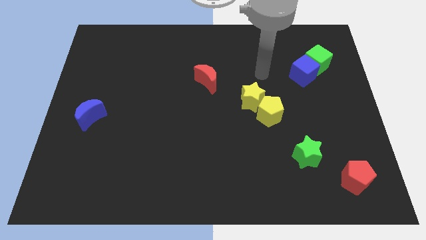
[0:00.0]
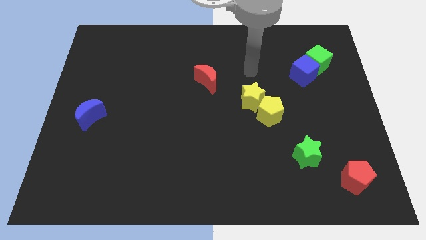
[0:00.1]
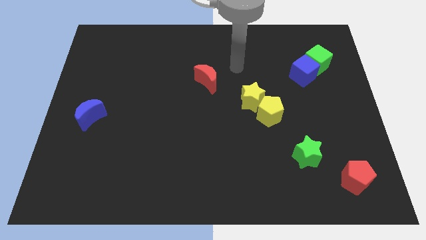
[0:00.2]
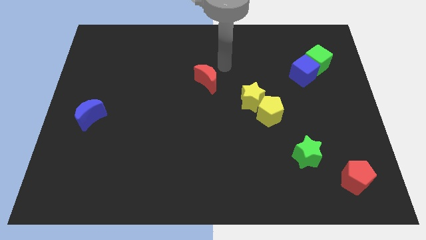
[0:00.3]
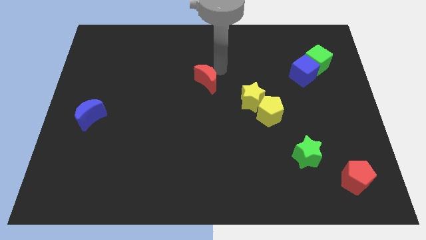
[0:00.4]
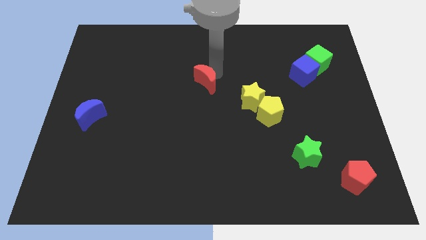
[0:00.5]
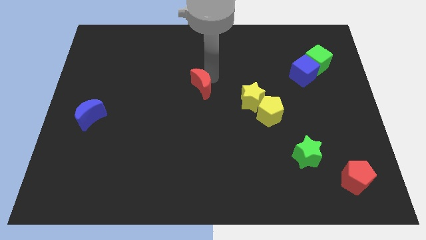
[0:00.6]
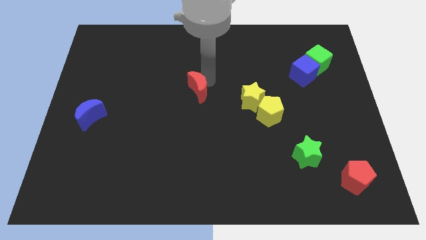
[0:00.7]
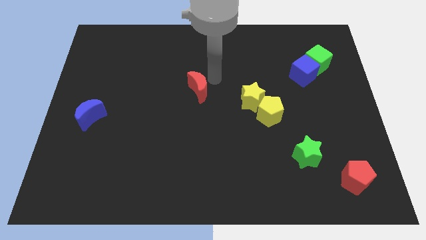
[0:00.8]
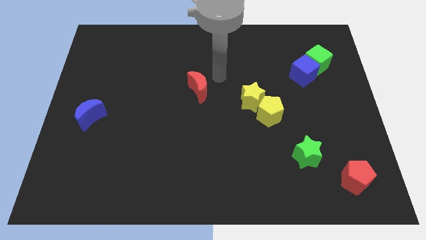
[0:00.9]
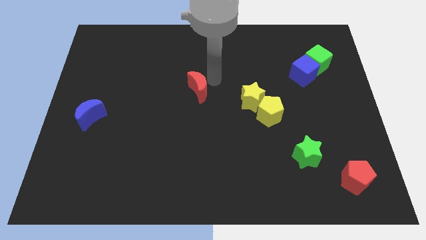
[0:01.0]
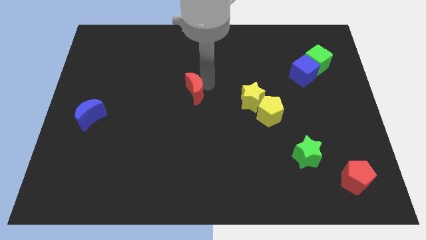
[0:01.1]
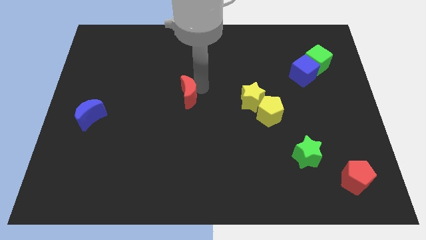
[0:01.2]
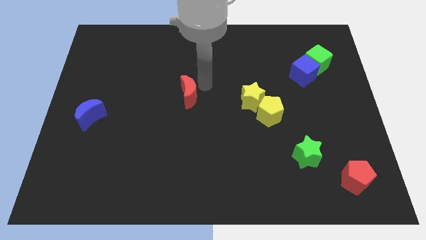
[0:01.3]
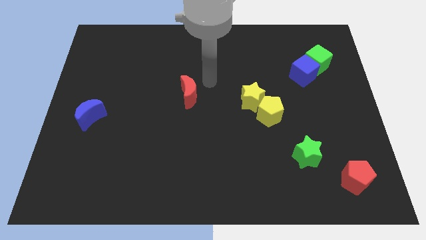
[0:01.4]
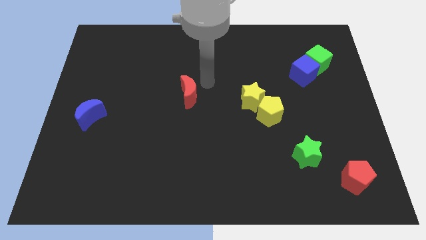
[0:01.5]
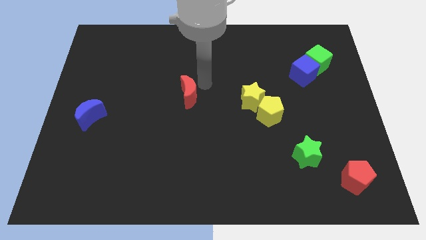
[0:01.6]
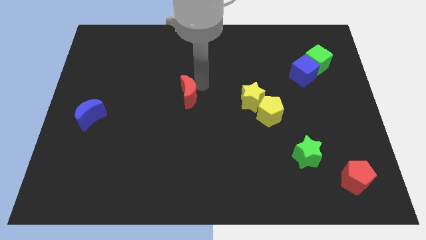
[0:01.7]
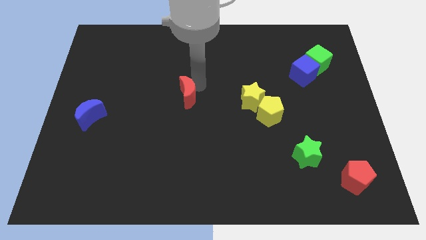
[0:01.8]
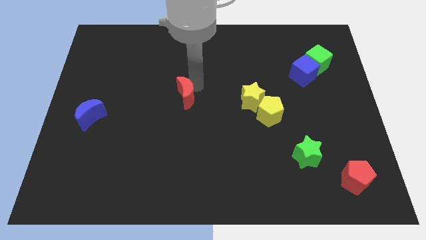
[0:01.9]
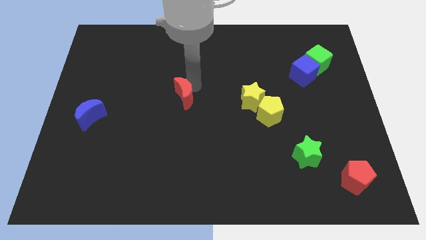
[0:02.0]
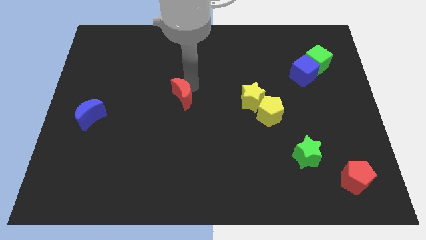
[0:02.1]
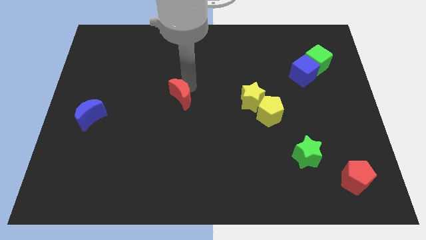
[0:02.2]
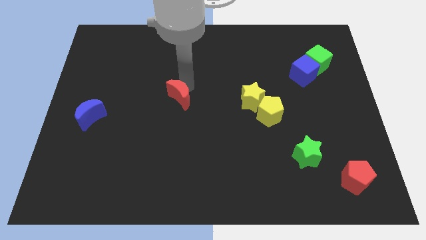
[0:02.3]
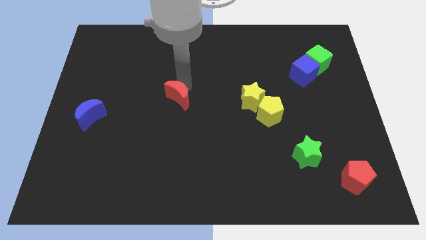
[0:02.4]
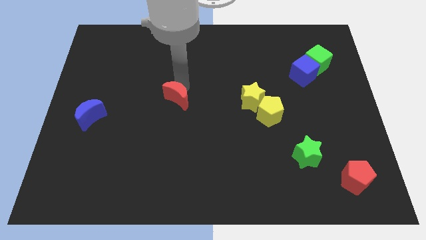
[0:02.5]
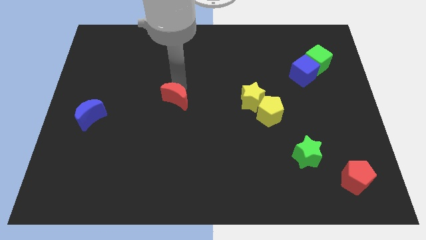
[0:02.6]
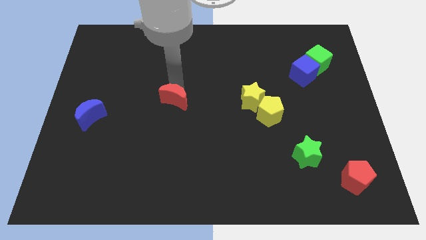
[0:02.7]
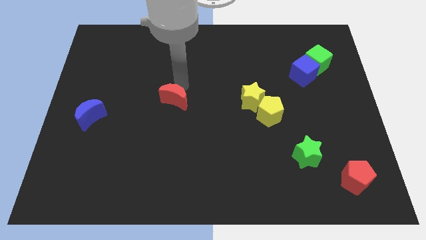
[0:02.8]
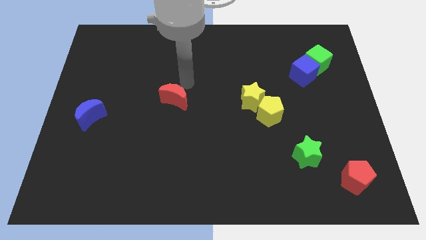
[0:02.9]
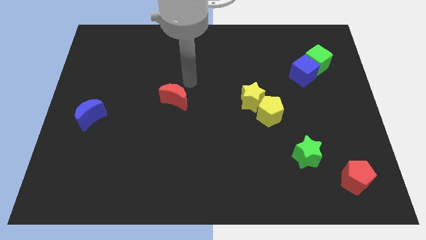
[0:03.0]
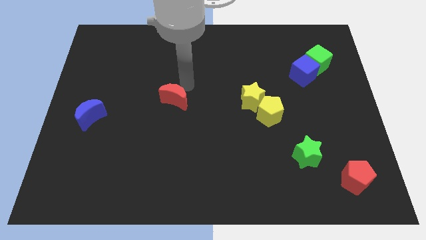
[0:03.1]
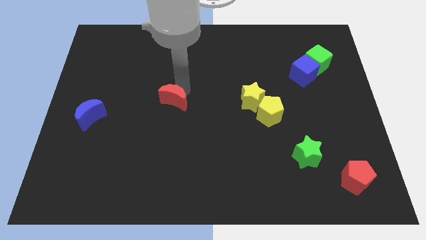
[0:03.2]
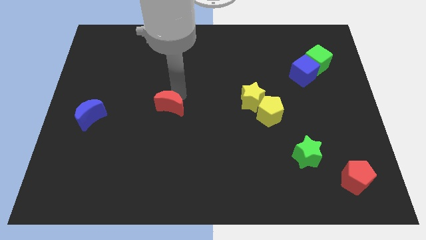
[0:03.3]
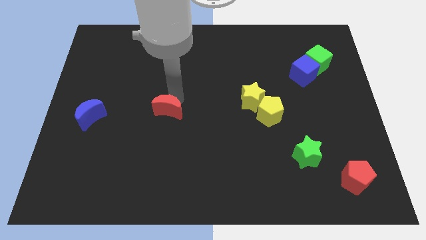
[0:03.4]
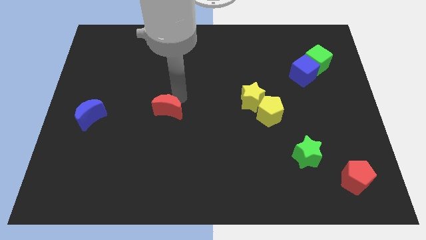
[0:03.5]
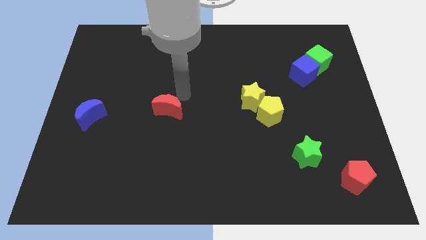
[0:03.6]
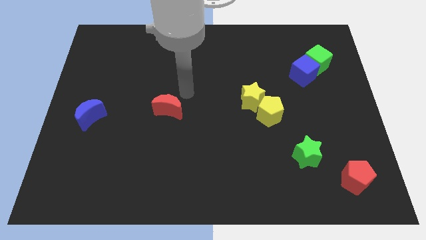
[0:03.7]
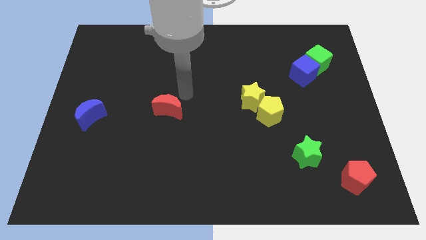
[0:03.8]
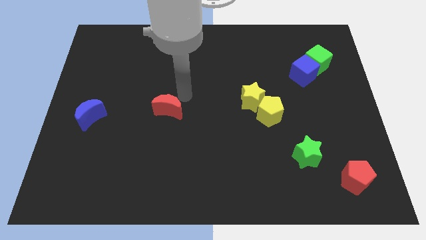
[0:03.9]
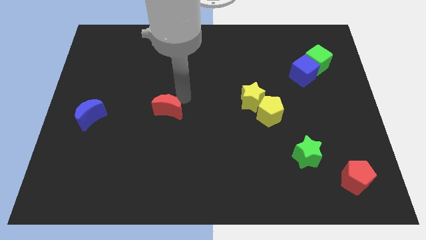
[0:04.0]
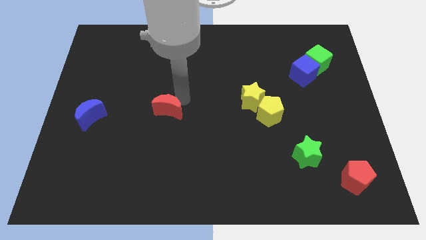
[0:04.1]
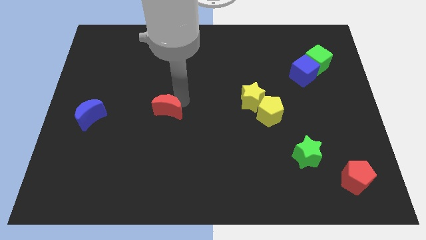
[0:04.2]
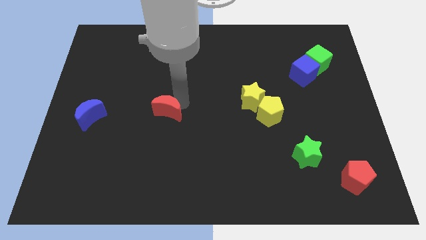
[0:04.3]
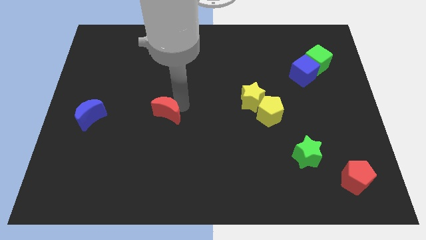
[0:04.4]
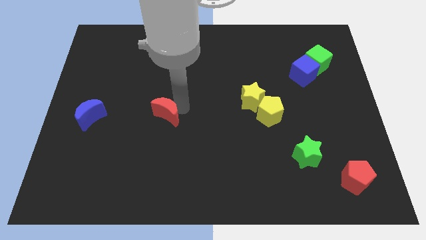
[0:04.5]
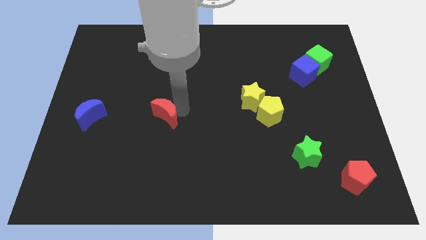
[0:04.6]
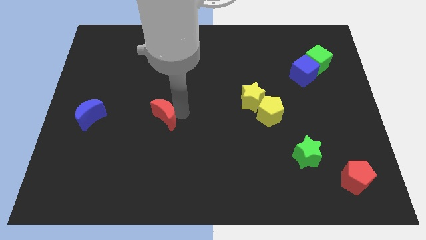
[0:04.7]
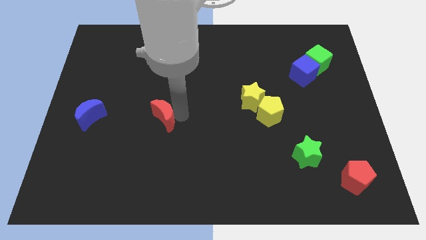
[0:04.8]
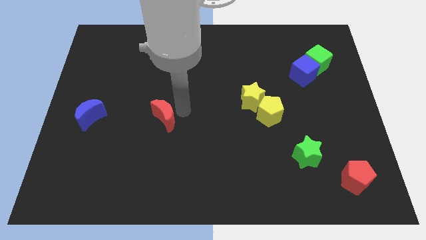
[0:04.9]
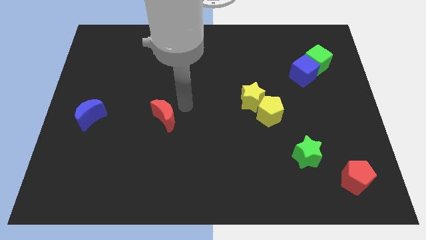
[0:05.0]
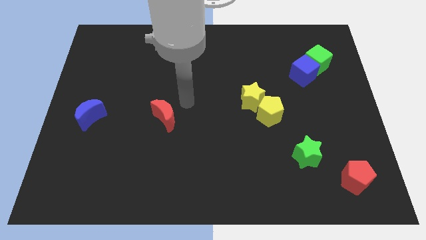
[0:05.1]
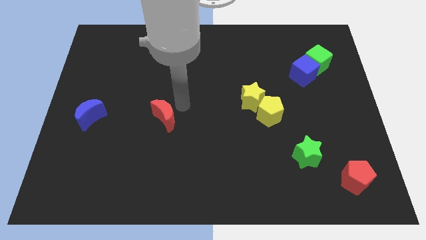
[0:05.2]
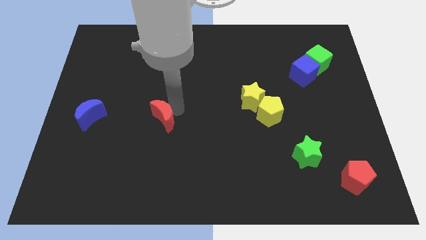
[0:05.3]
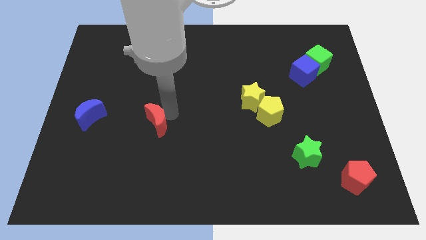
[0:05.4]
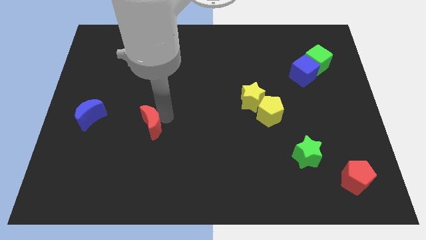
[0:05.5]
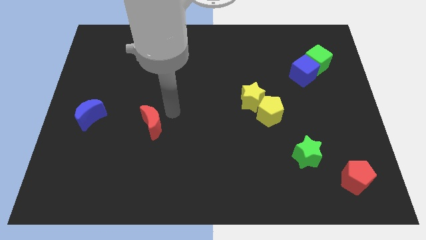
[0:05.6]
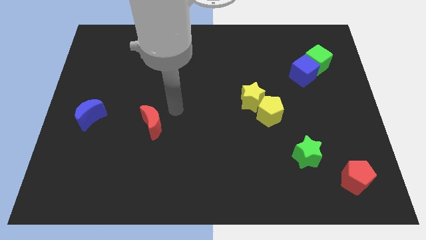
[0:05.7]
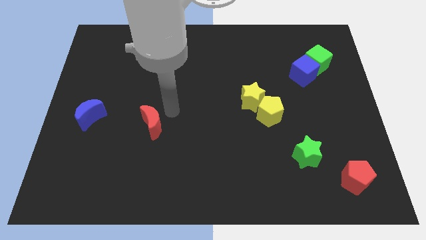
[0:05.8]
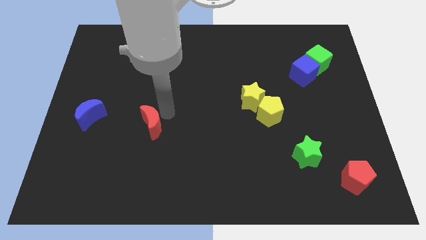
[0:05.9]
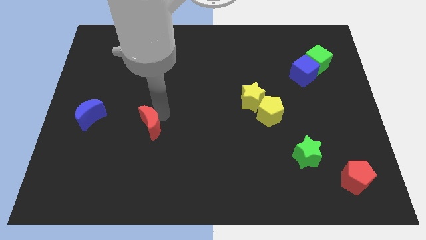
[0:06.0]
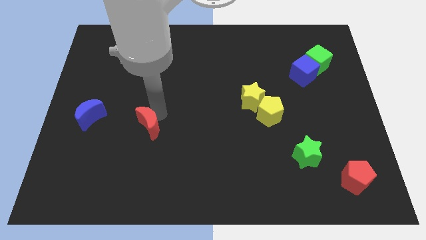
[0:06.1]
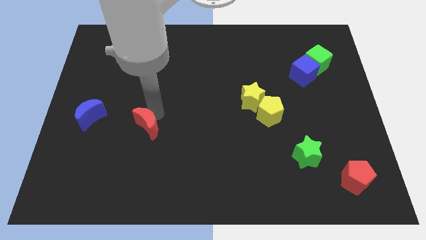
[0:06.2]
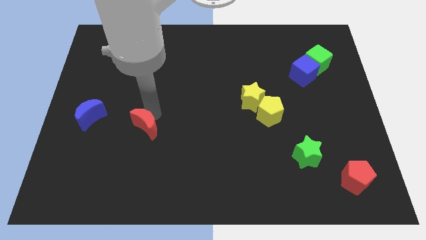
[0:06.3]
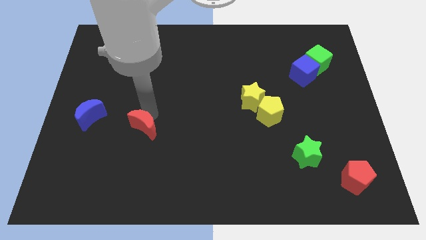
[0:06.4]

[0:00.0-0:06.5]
move the red moon downwards and then to the left

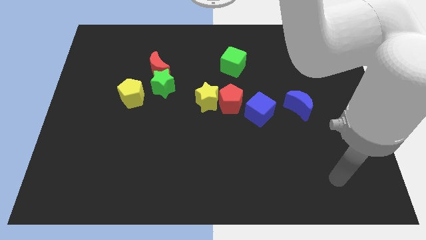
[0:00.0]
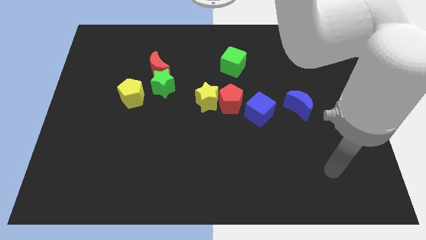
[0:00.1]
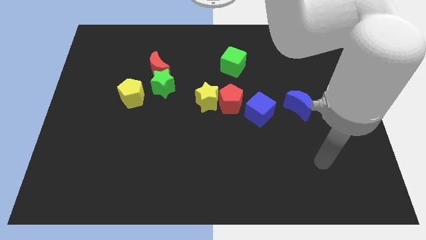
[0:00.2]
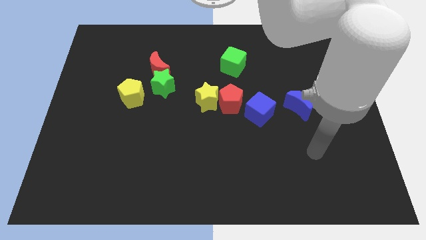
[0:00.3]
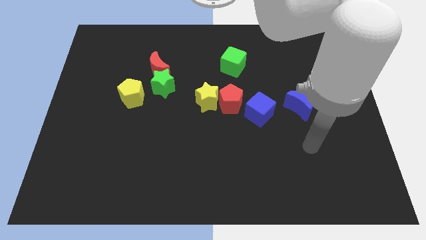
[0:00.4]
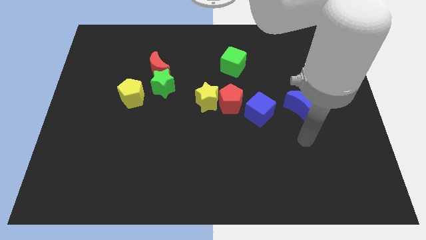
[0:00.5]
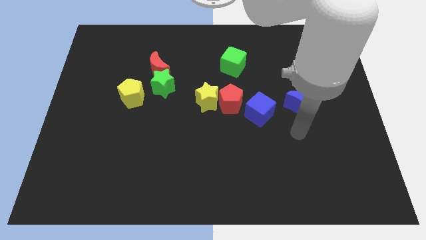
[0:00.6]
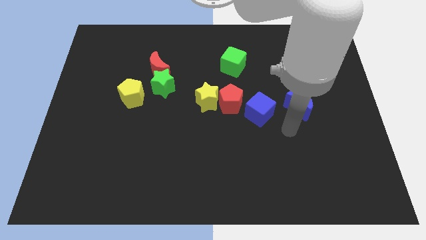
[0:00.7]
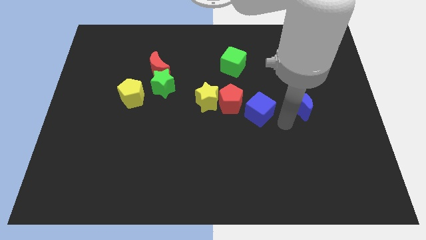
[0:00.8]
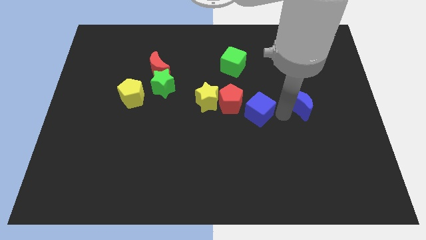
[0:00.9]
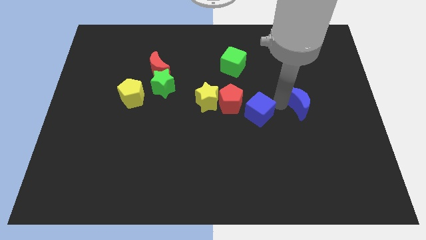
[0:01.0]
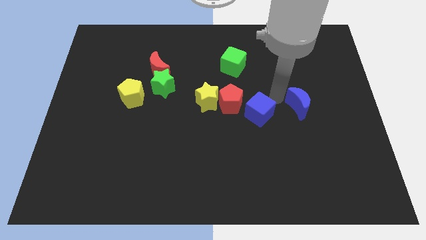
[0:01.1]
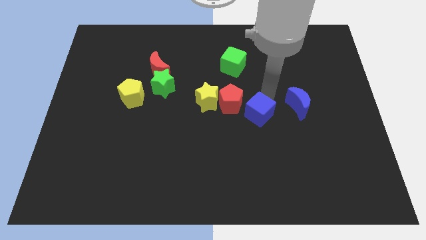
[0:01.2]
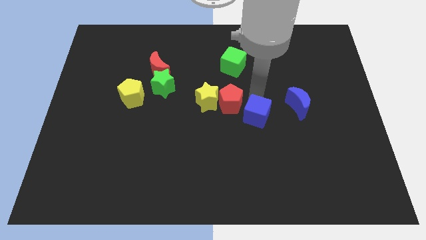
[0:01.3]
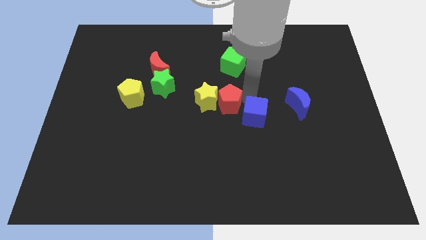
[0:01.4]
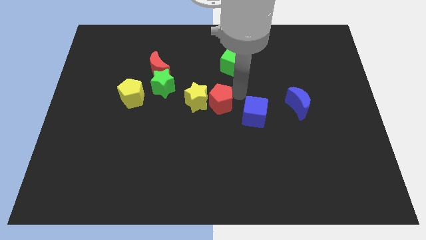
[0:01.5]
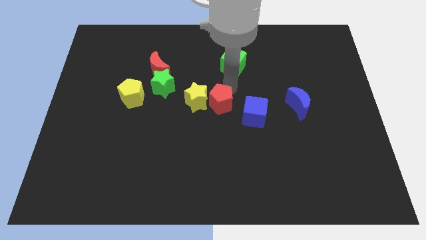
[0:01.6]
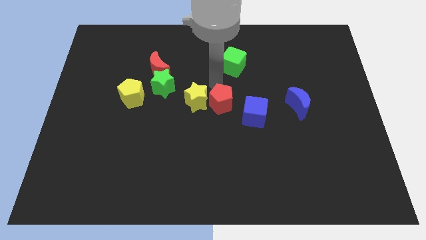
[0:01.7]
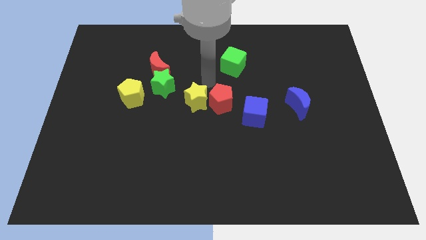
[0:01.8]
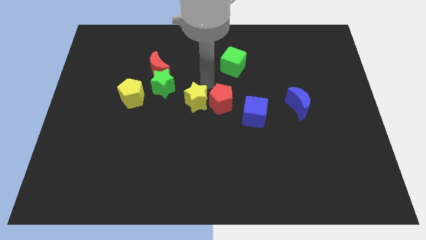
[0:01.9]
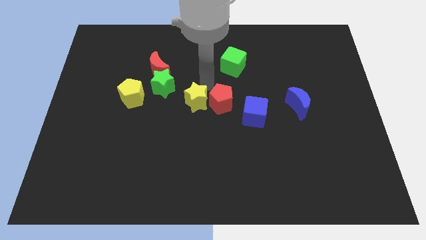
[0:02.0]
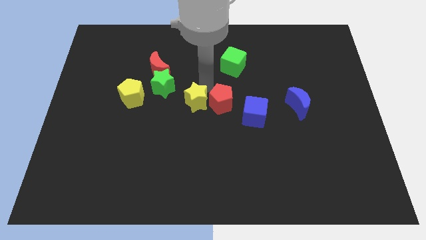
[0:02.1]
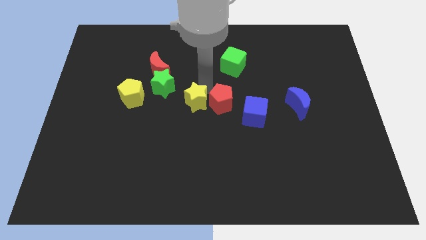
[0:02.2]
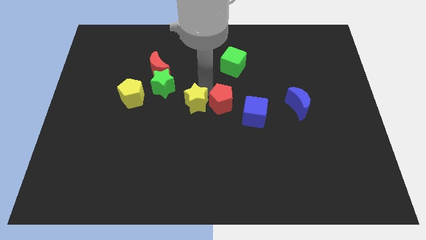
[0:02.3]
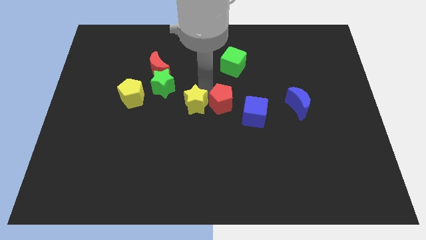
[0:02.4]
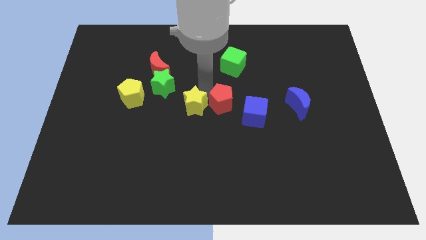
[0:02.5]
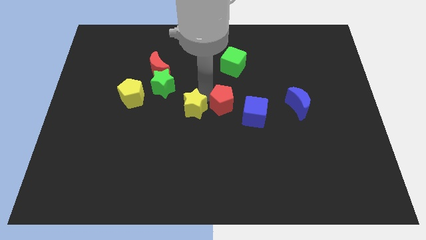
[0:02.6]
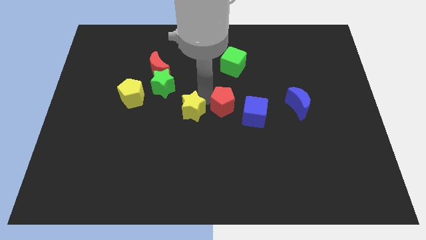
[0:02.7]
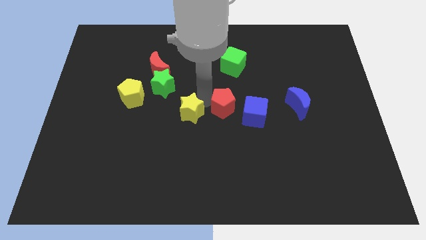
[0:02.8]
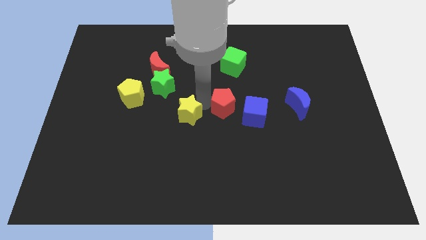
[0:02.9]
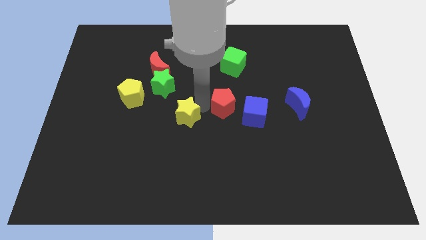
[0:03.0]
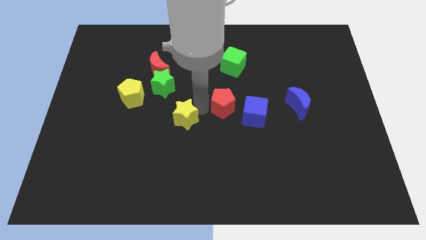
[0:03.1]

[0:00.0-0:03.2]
push the yellow star down and left a little bit
